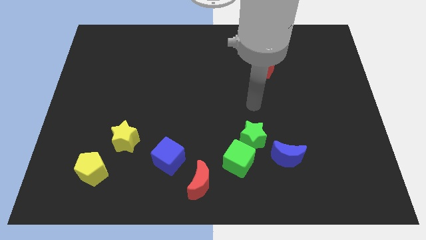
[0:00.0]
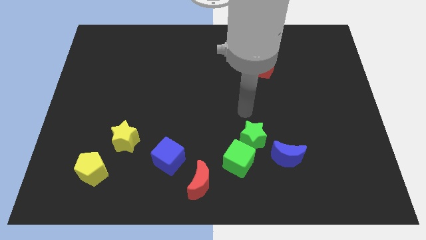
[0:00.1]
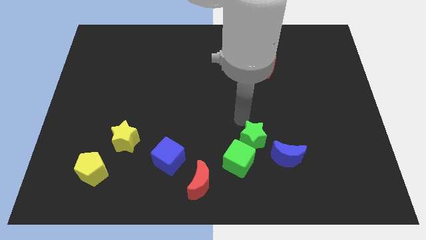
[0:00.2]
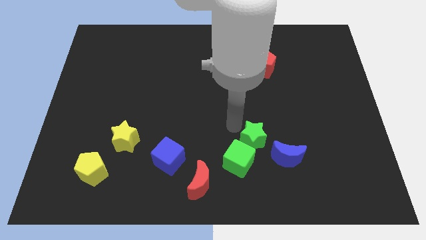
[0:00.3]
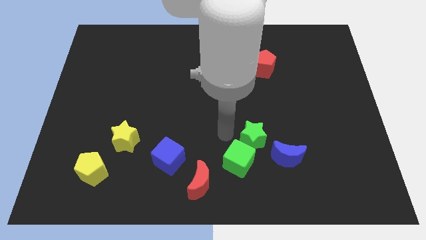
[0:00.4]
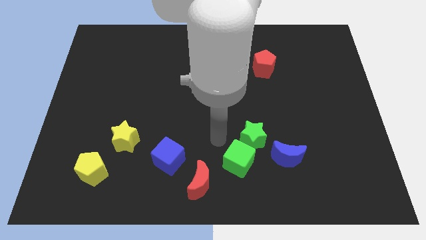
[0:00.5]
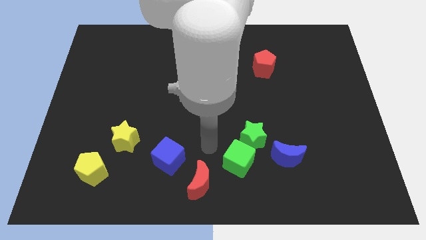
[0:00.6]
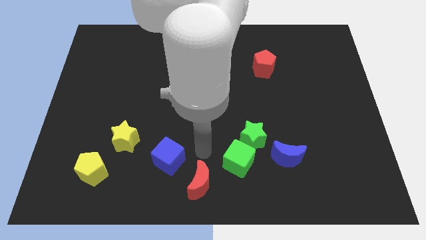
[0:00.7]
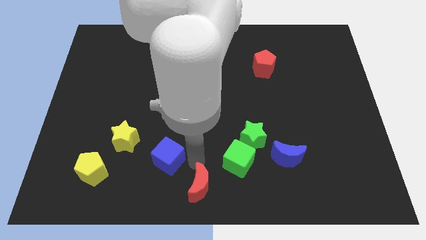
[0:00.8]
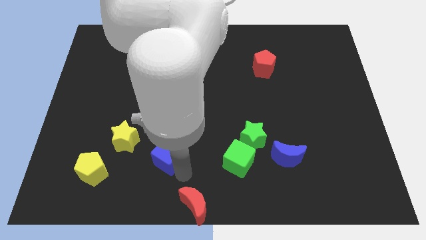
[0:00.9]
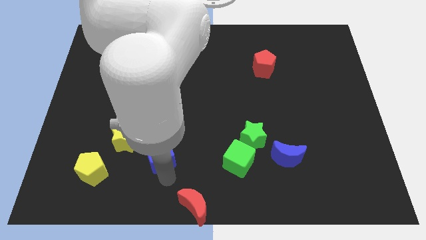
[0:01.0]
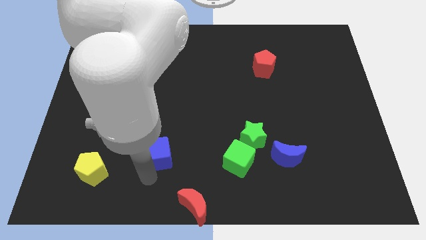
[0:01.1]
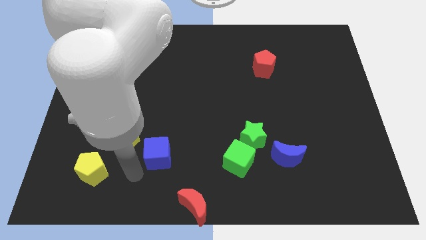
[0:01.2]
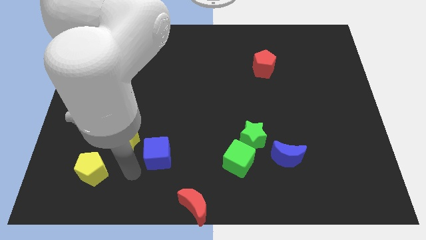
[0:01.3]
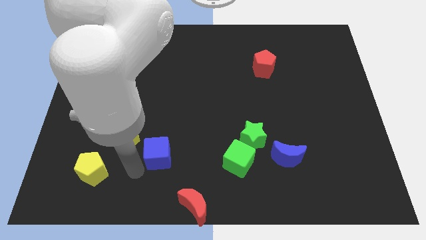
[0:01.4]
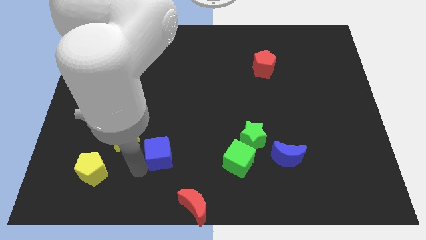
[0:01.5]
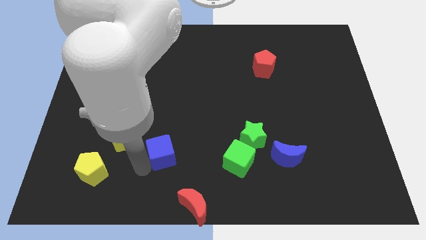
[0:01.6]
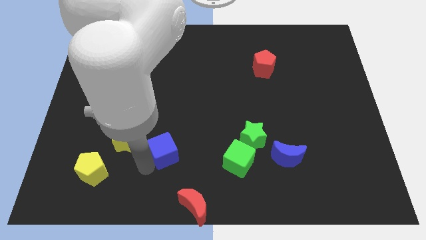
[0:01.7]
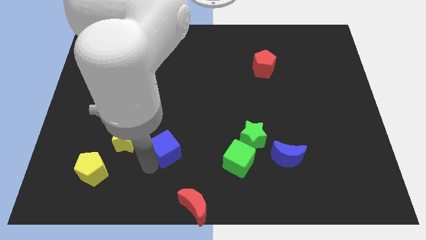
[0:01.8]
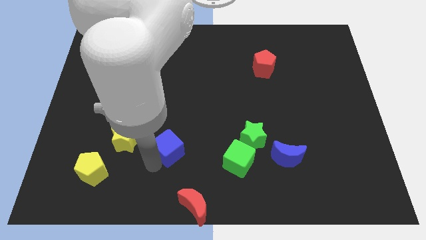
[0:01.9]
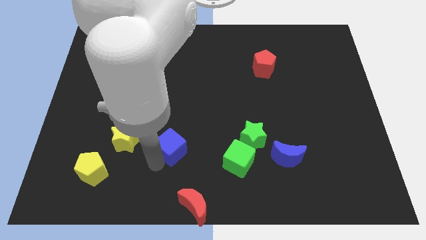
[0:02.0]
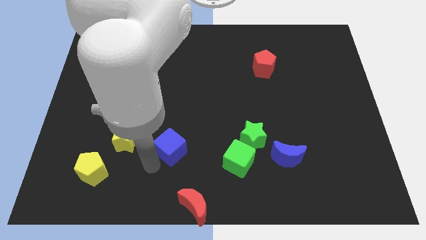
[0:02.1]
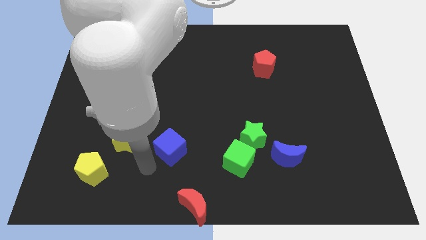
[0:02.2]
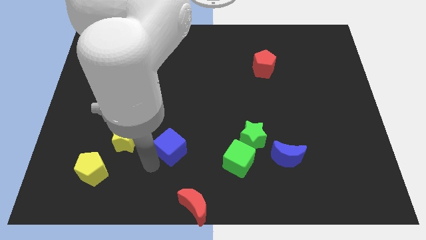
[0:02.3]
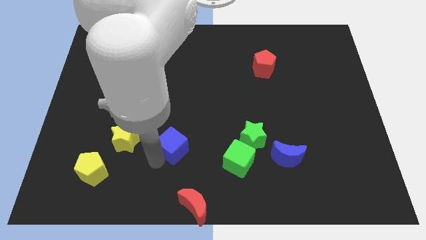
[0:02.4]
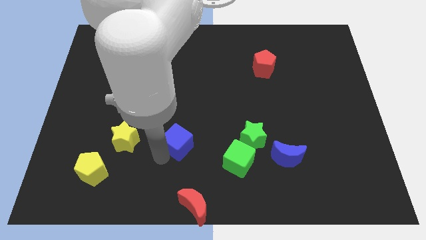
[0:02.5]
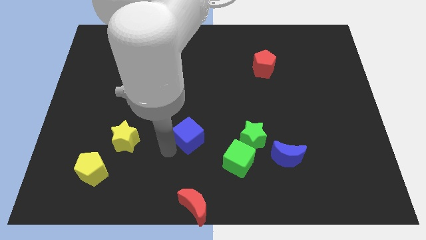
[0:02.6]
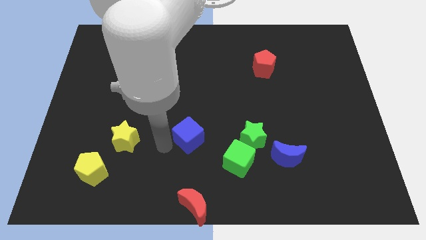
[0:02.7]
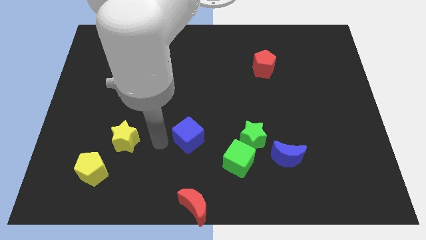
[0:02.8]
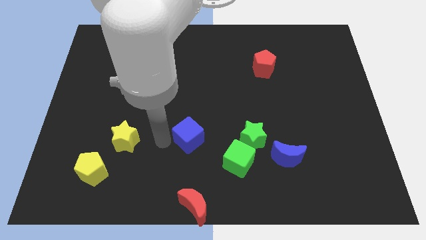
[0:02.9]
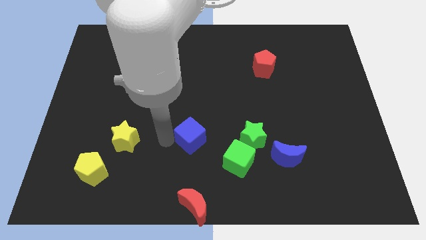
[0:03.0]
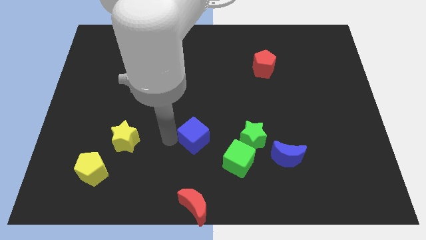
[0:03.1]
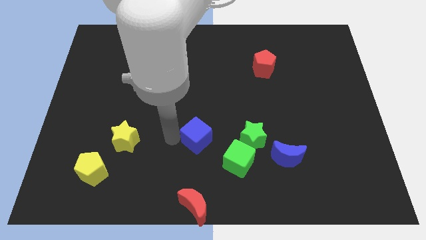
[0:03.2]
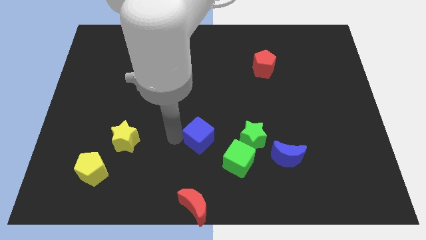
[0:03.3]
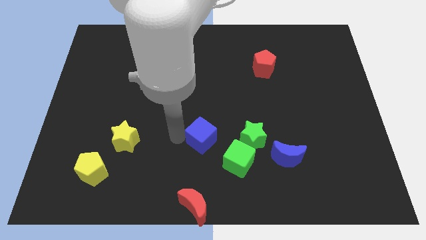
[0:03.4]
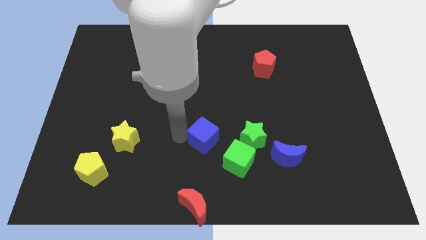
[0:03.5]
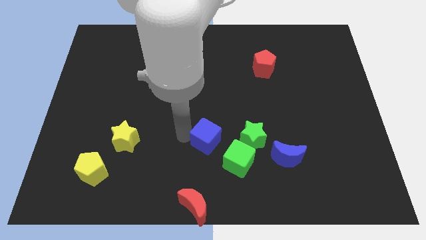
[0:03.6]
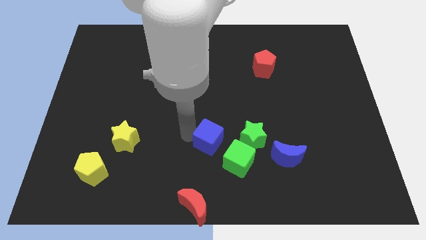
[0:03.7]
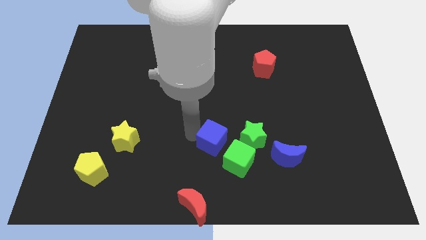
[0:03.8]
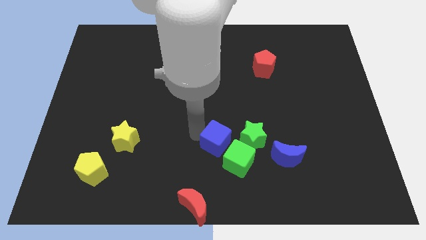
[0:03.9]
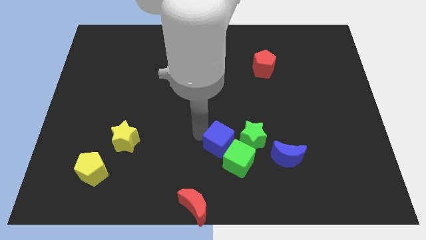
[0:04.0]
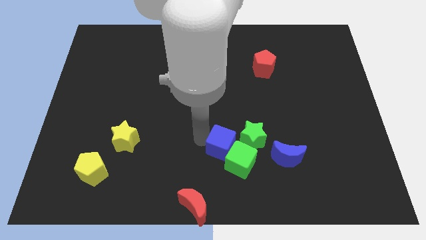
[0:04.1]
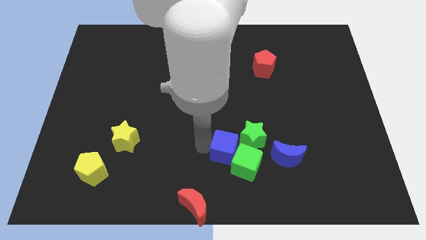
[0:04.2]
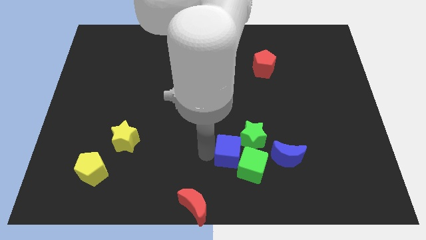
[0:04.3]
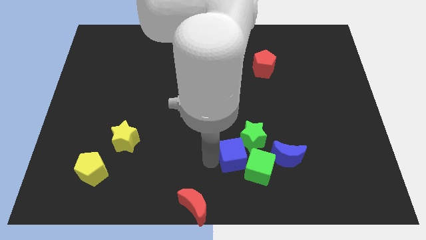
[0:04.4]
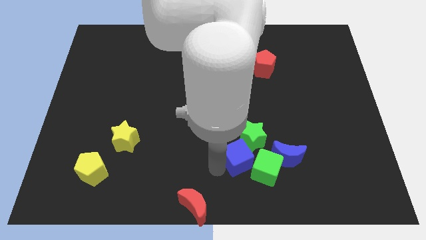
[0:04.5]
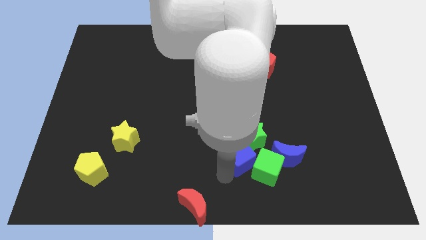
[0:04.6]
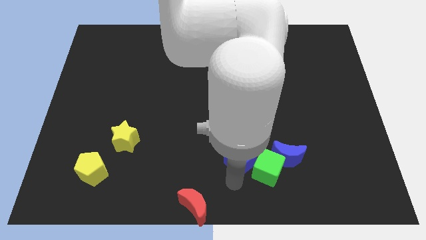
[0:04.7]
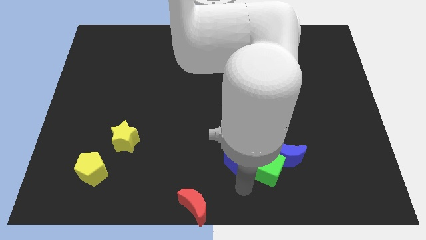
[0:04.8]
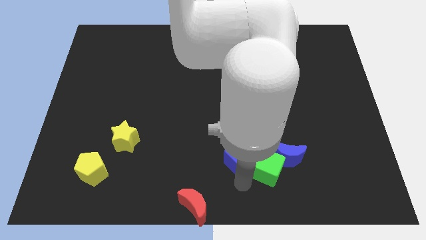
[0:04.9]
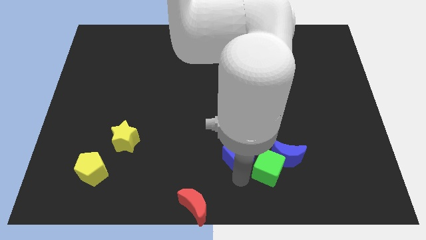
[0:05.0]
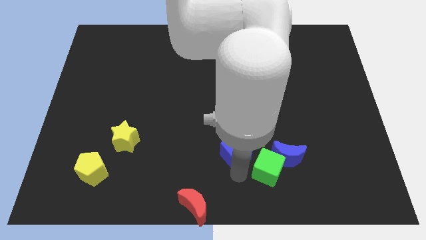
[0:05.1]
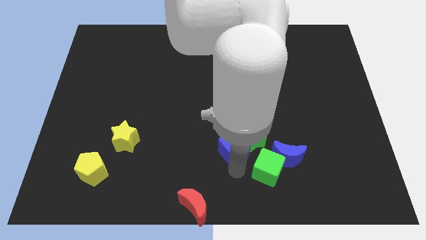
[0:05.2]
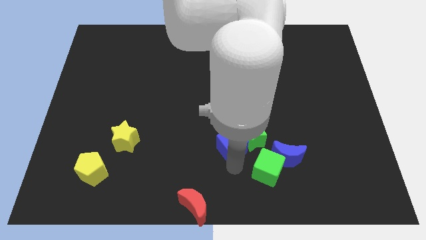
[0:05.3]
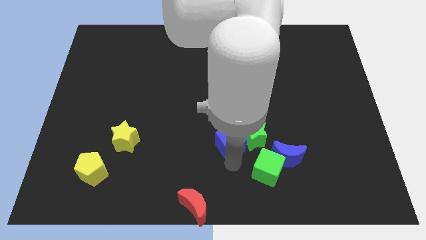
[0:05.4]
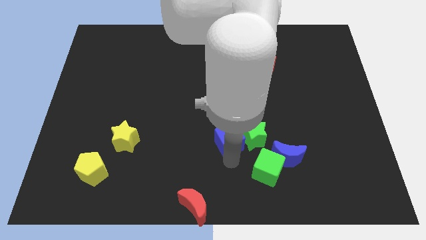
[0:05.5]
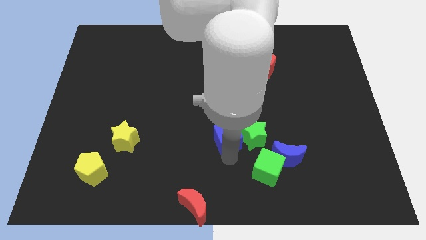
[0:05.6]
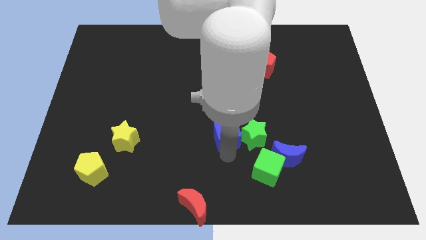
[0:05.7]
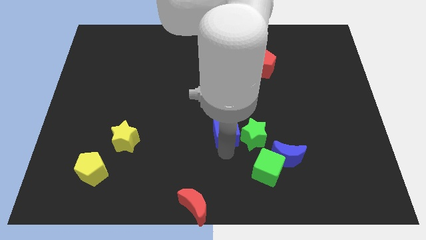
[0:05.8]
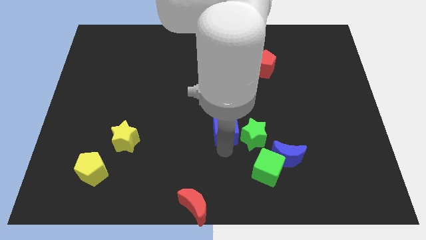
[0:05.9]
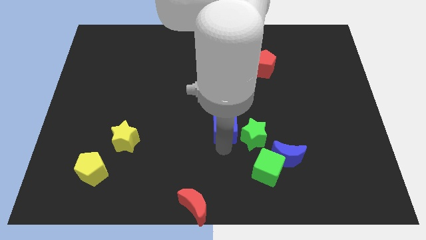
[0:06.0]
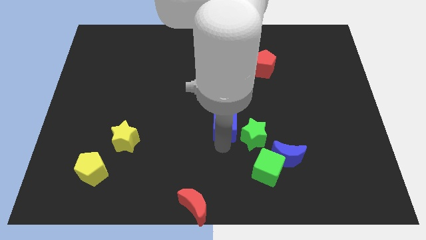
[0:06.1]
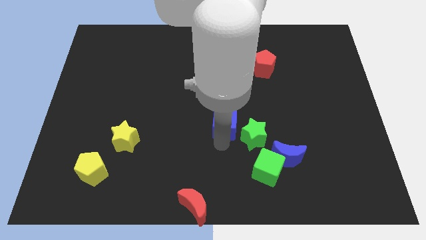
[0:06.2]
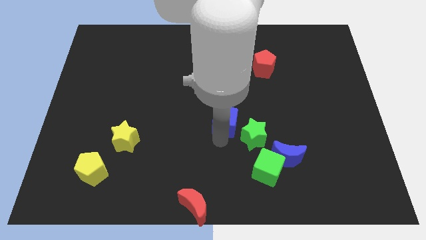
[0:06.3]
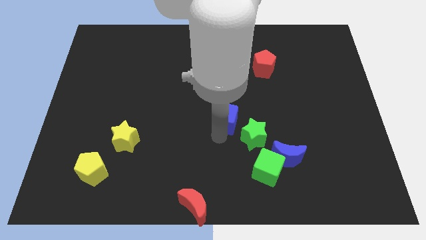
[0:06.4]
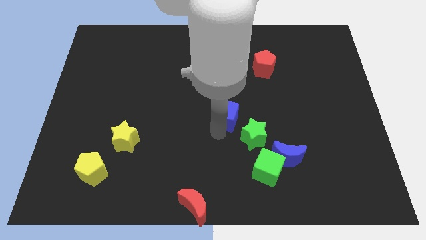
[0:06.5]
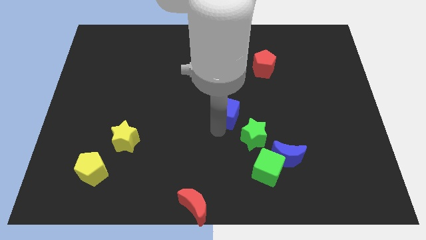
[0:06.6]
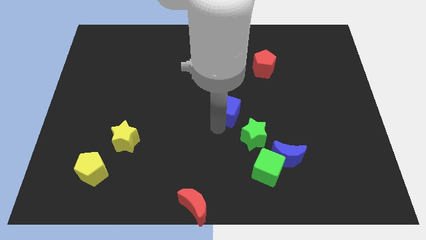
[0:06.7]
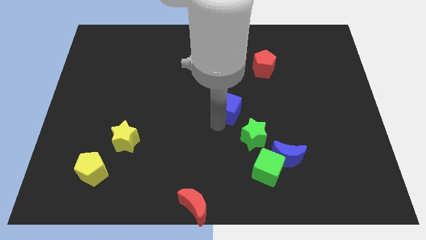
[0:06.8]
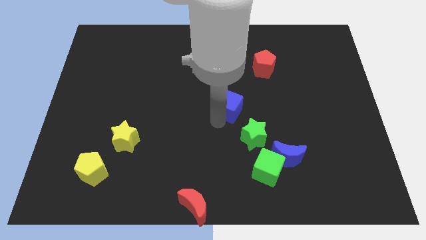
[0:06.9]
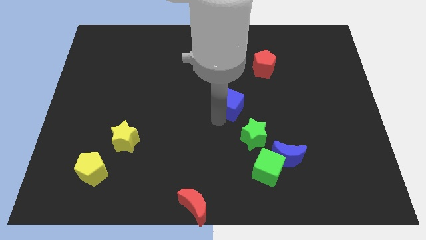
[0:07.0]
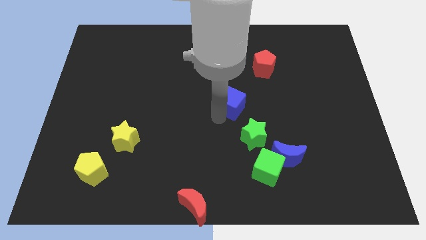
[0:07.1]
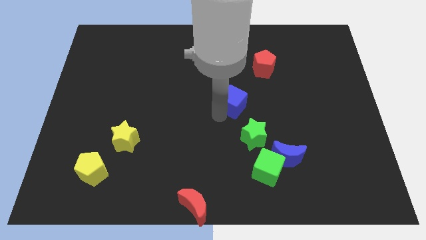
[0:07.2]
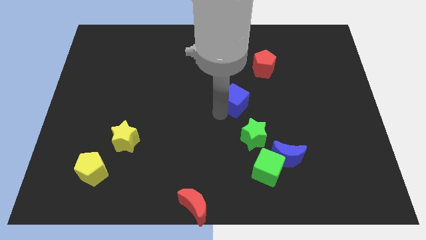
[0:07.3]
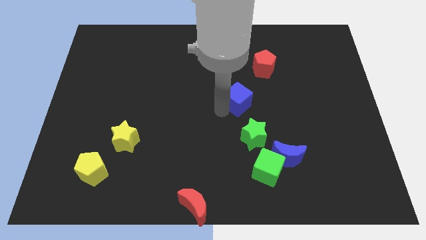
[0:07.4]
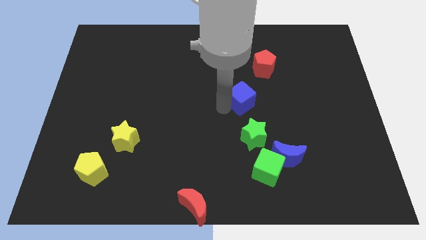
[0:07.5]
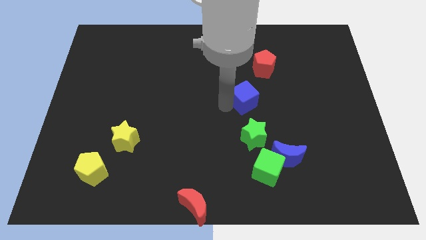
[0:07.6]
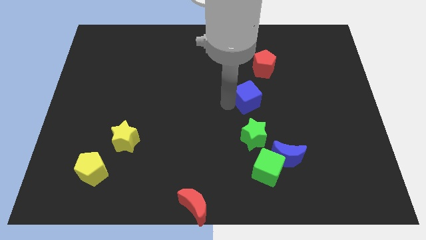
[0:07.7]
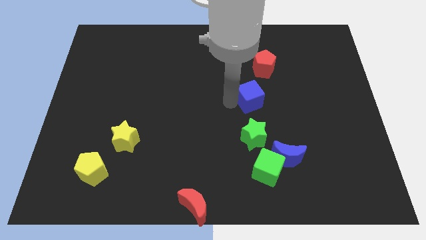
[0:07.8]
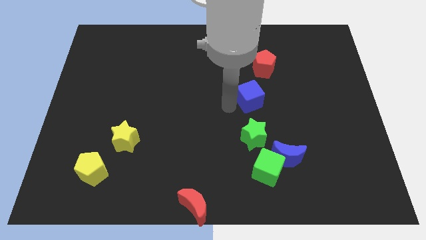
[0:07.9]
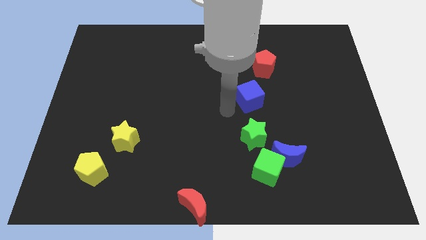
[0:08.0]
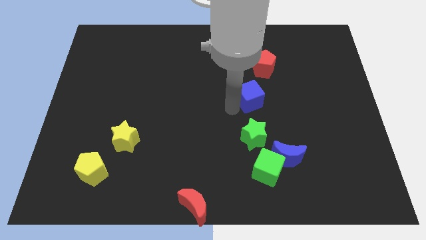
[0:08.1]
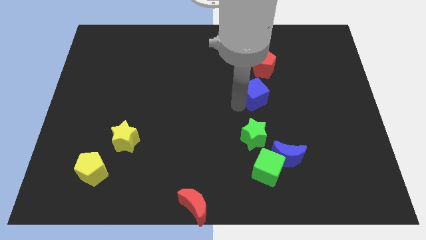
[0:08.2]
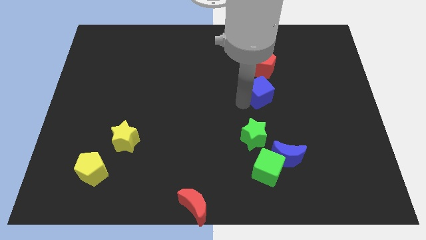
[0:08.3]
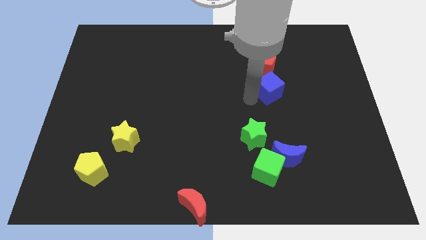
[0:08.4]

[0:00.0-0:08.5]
put the blue cube diagonally down and to the right of the red pentagon
